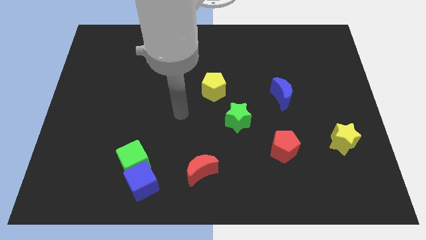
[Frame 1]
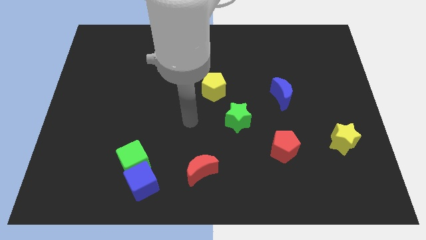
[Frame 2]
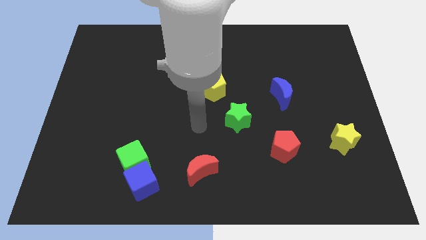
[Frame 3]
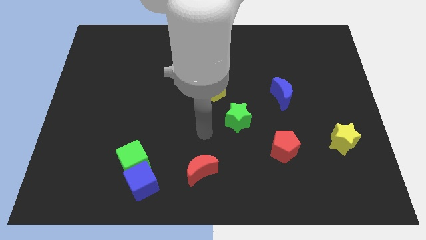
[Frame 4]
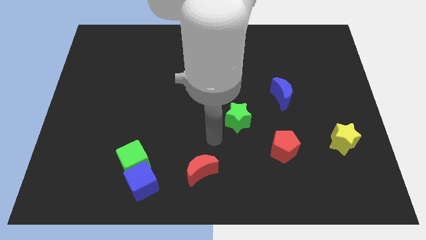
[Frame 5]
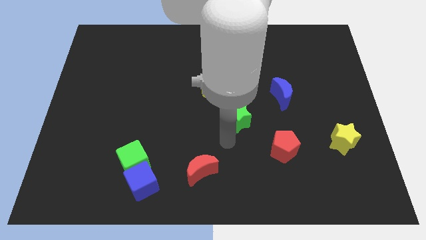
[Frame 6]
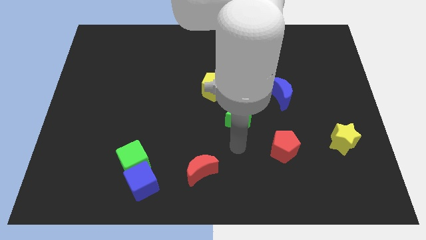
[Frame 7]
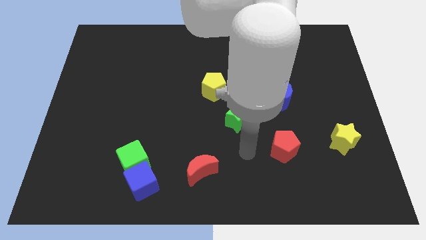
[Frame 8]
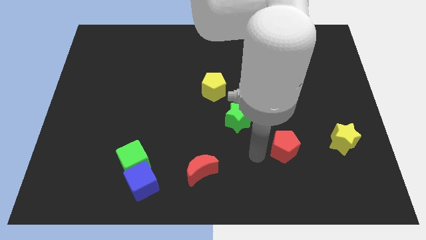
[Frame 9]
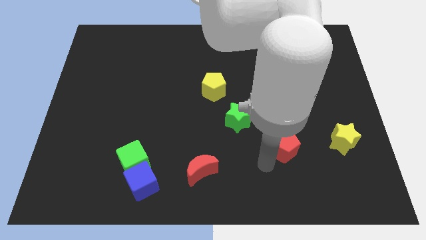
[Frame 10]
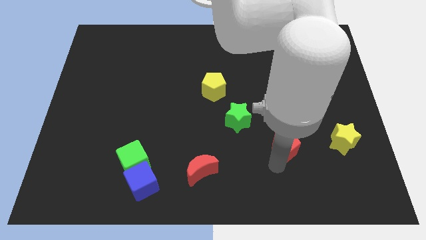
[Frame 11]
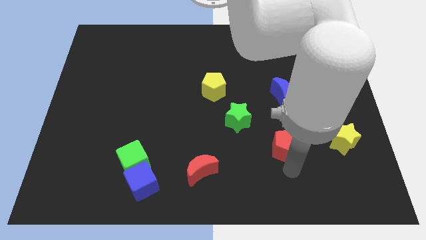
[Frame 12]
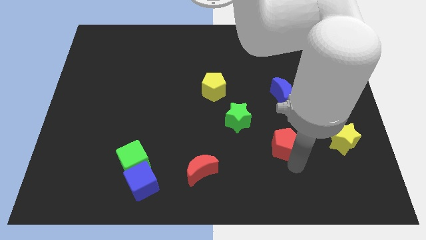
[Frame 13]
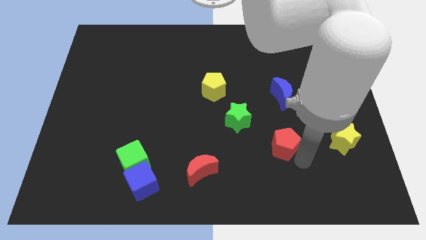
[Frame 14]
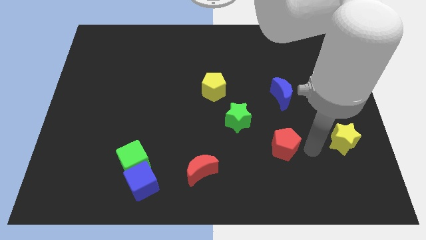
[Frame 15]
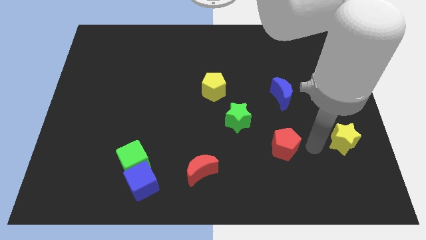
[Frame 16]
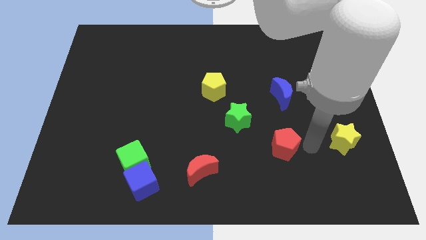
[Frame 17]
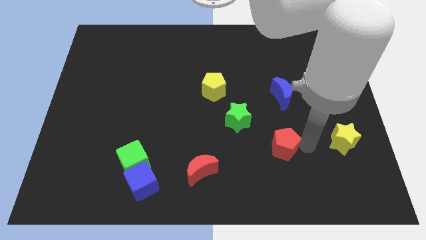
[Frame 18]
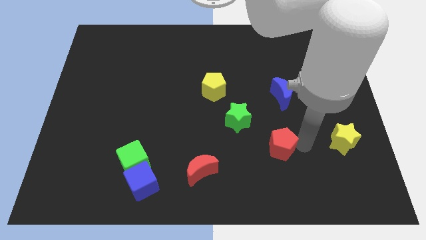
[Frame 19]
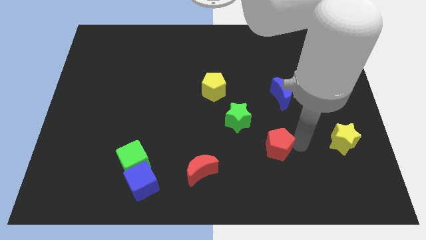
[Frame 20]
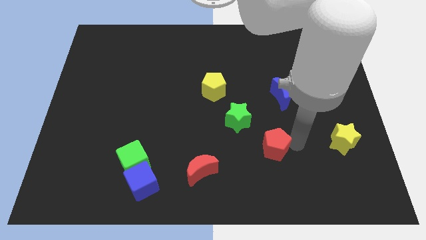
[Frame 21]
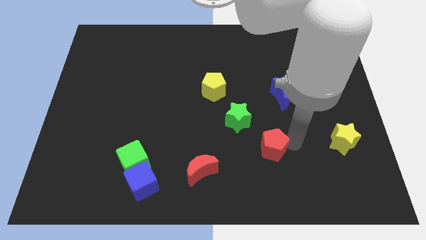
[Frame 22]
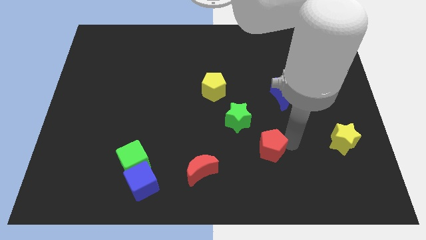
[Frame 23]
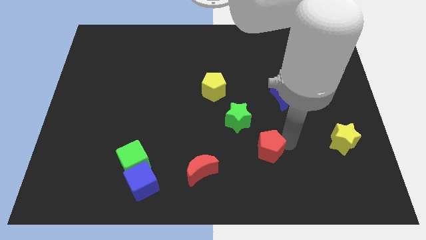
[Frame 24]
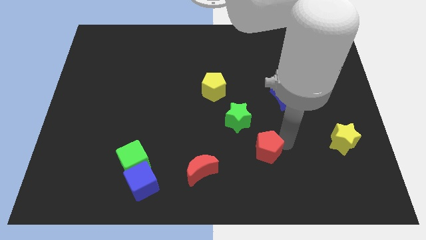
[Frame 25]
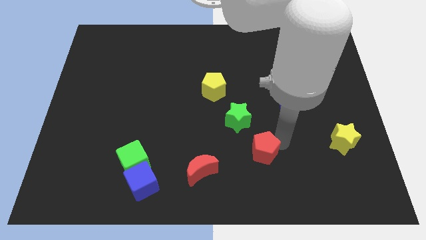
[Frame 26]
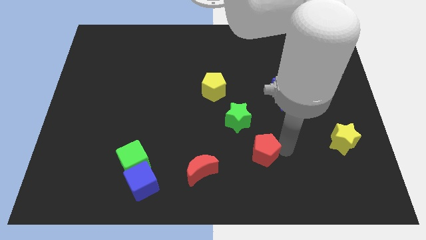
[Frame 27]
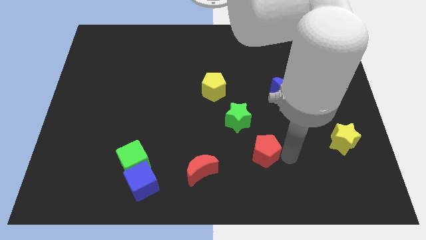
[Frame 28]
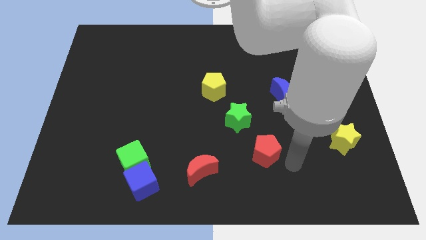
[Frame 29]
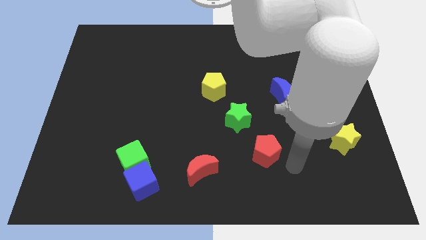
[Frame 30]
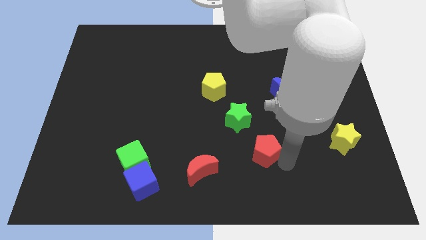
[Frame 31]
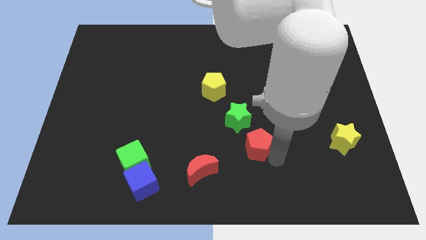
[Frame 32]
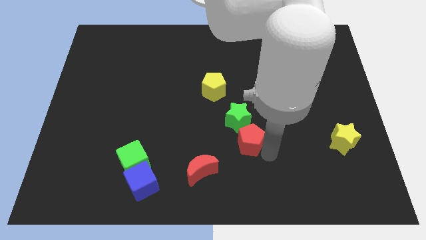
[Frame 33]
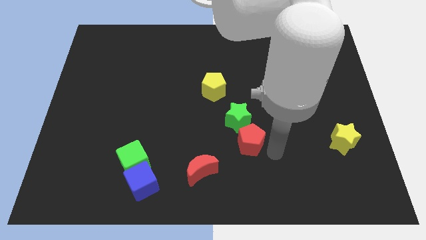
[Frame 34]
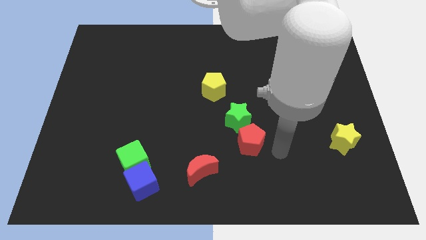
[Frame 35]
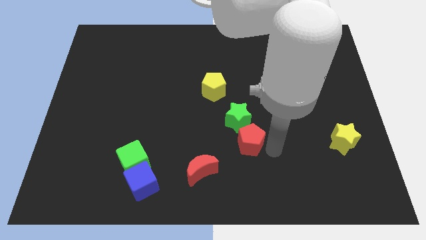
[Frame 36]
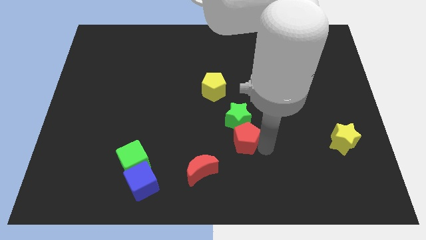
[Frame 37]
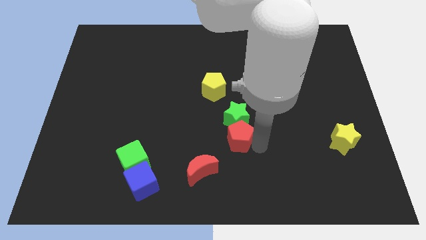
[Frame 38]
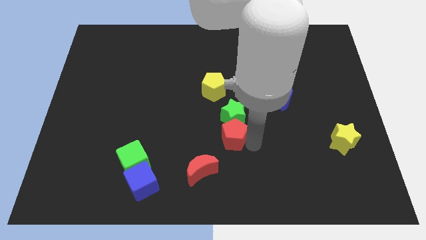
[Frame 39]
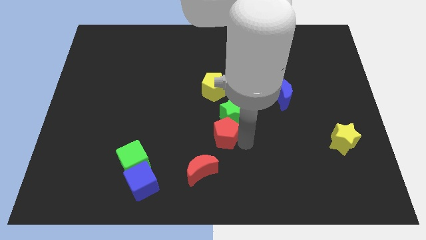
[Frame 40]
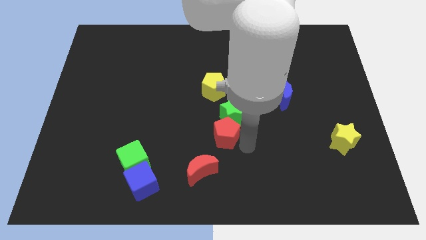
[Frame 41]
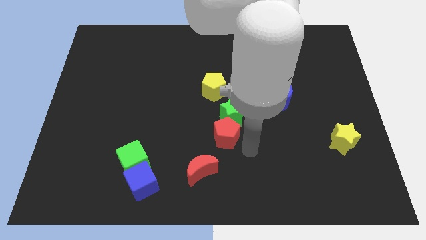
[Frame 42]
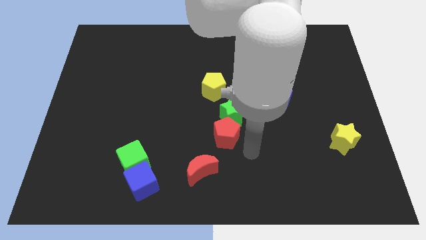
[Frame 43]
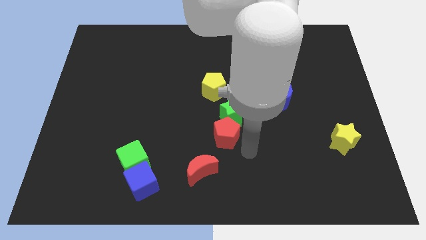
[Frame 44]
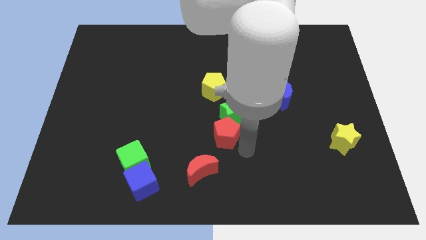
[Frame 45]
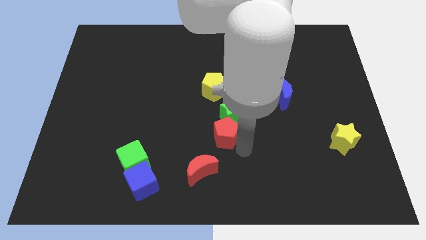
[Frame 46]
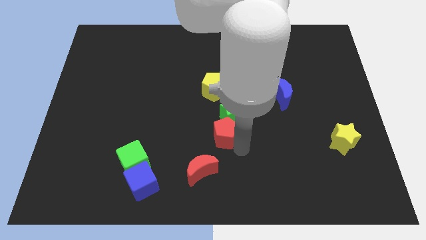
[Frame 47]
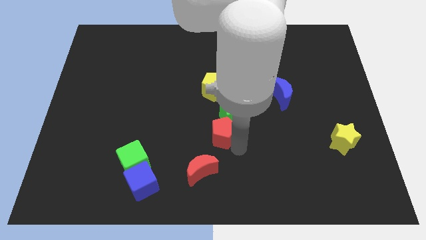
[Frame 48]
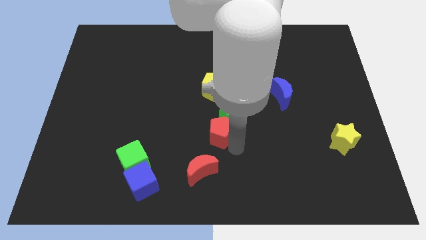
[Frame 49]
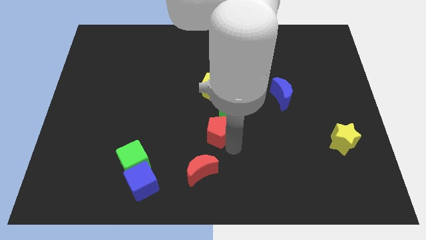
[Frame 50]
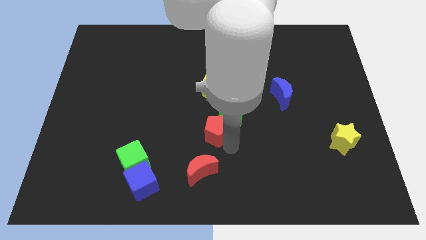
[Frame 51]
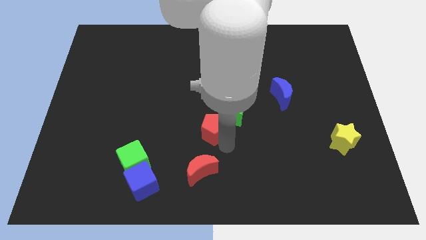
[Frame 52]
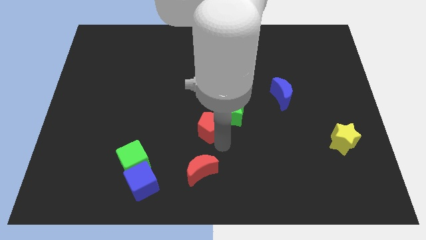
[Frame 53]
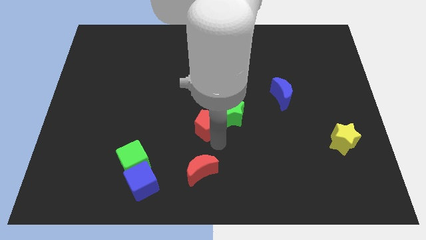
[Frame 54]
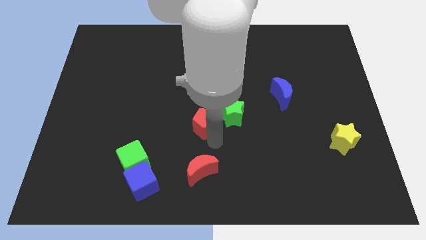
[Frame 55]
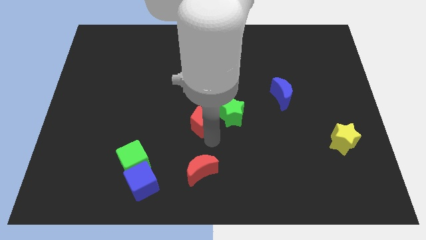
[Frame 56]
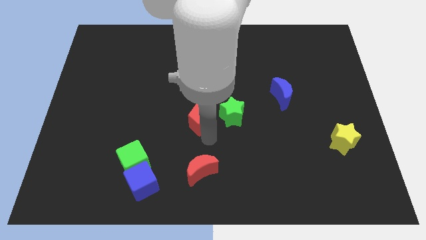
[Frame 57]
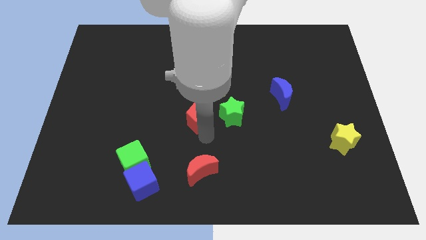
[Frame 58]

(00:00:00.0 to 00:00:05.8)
put the red pentagon to the bottom left side of the yellow pentagon

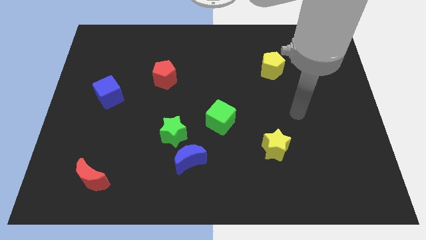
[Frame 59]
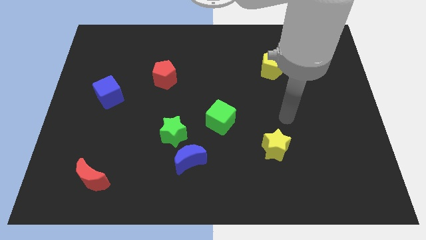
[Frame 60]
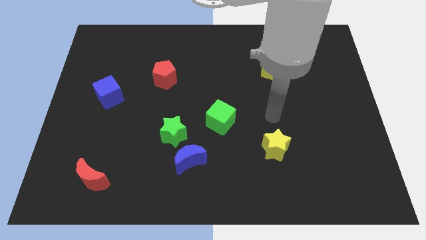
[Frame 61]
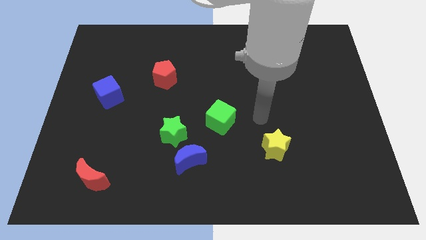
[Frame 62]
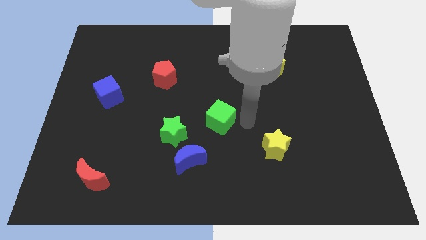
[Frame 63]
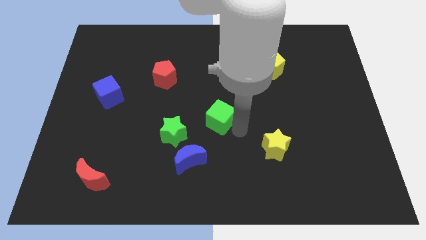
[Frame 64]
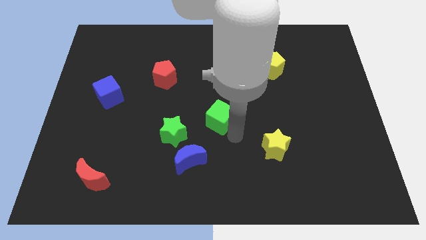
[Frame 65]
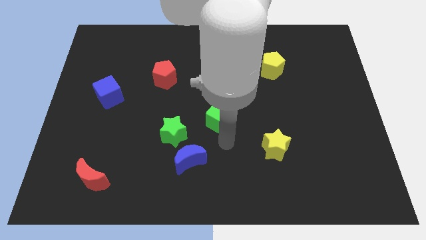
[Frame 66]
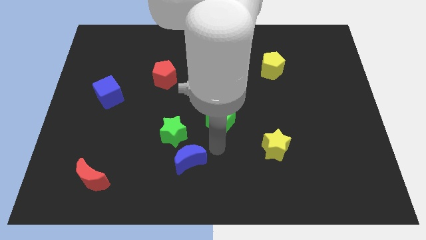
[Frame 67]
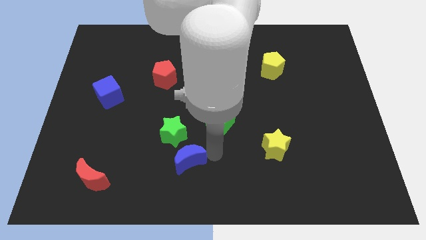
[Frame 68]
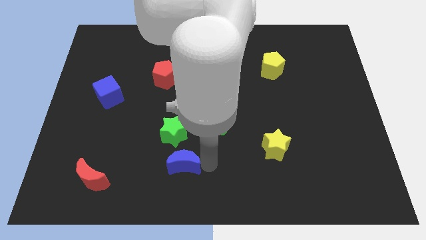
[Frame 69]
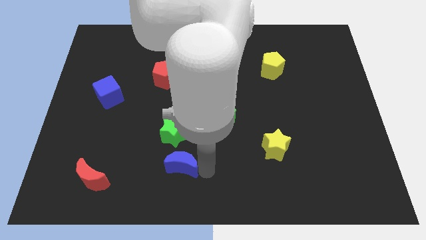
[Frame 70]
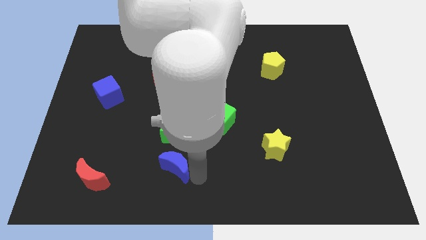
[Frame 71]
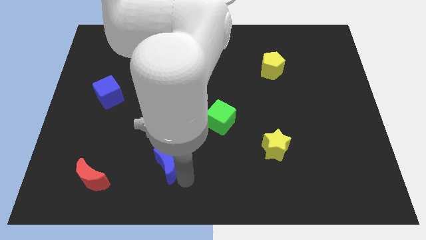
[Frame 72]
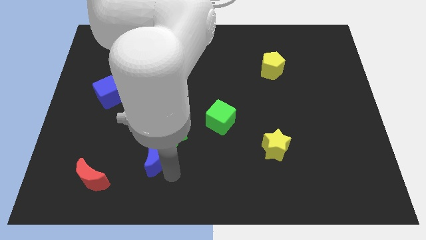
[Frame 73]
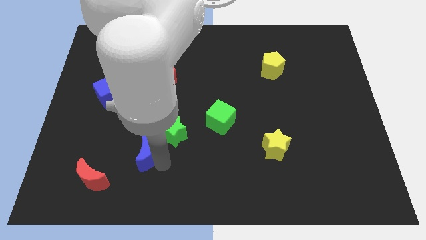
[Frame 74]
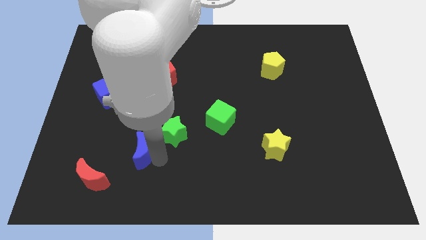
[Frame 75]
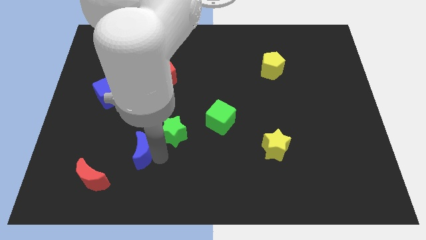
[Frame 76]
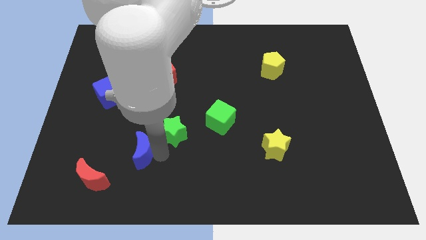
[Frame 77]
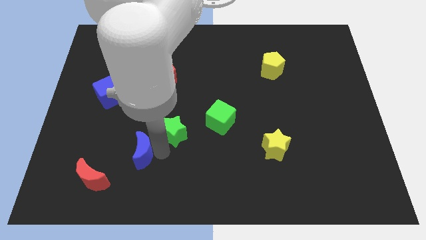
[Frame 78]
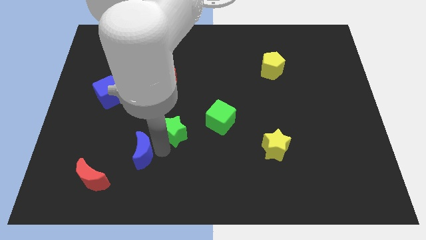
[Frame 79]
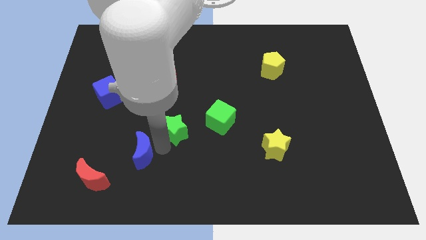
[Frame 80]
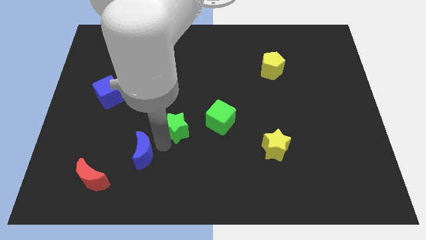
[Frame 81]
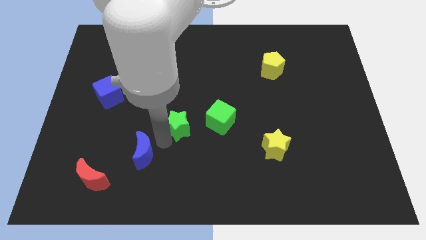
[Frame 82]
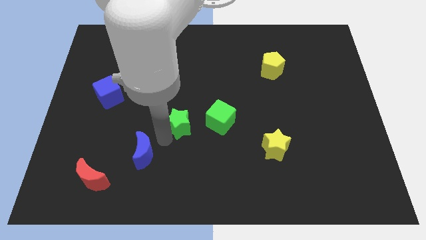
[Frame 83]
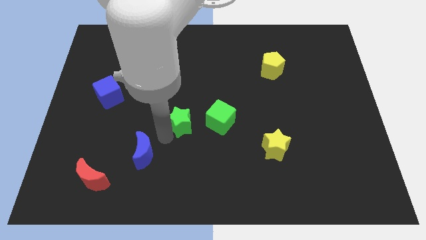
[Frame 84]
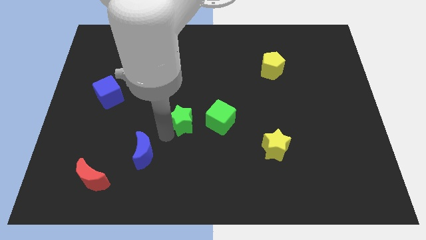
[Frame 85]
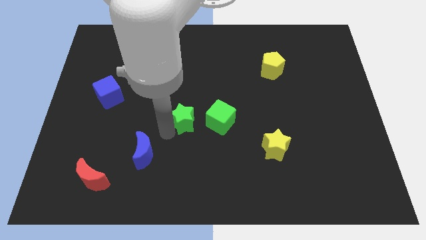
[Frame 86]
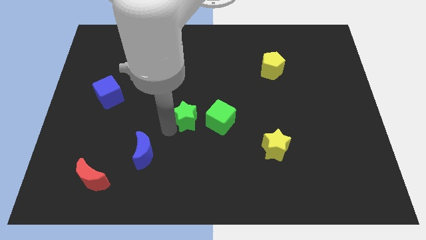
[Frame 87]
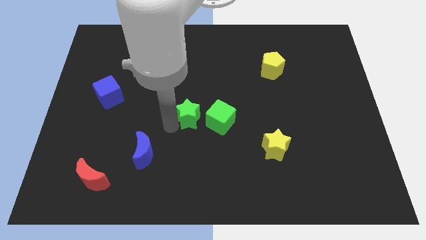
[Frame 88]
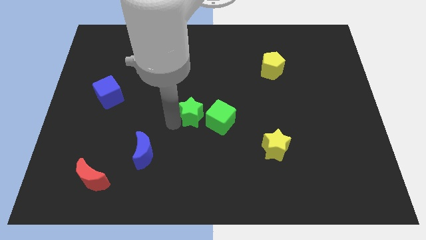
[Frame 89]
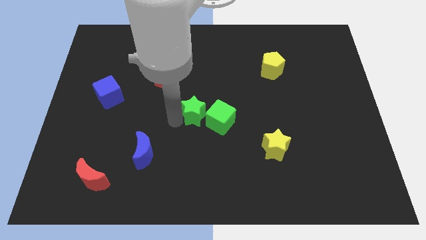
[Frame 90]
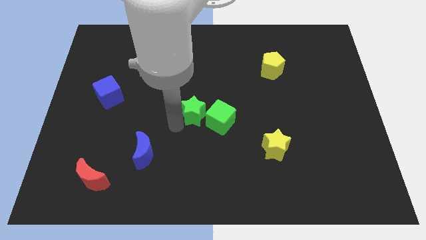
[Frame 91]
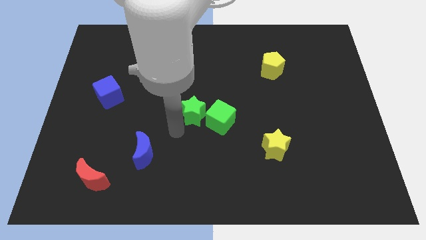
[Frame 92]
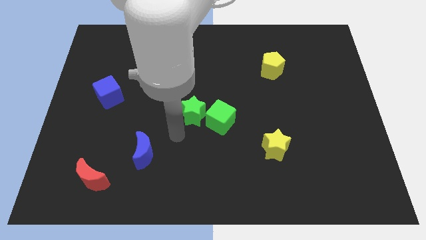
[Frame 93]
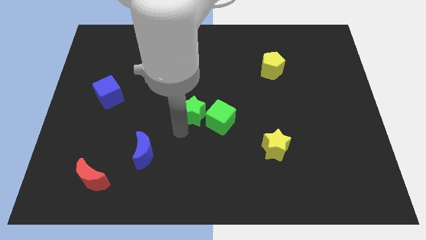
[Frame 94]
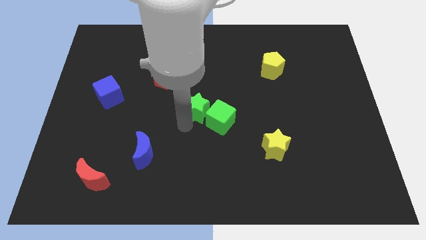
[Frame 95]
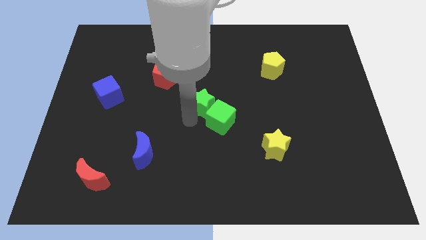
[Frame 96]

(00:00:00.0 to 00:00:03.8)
put the green star above the green cube
